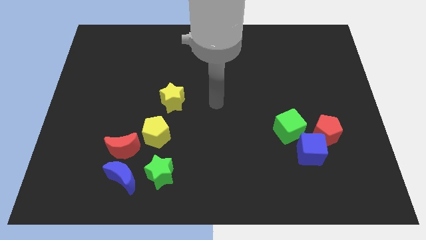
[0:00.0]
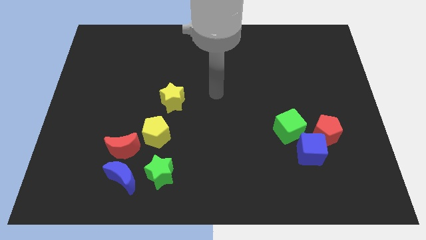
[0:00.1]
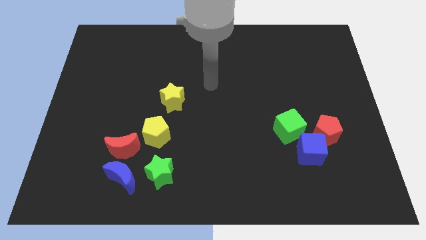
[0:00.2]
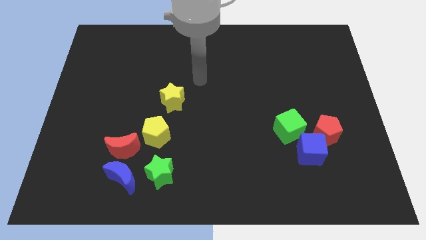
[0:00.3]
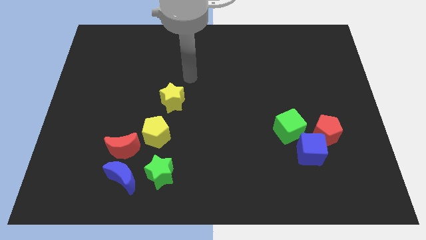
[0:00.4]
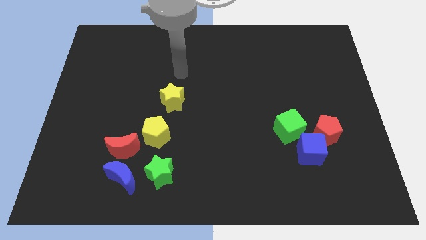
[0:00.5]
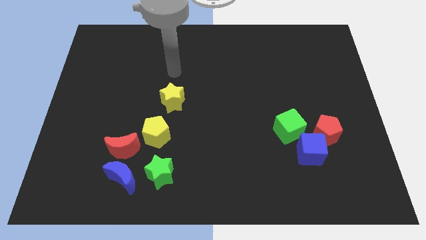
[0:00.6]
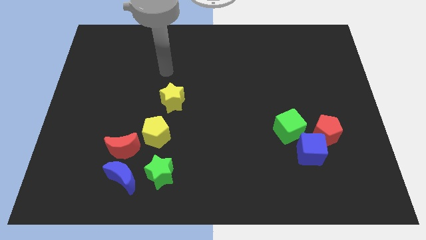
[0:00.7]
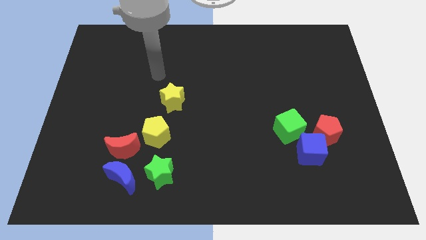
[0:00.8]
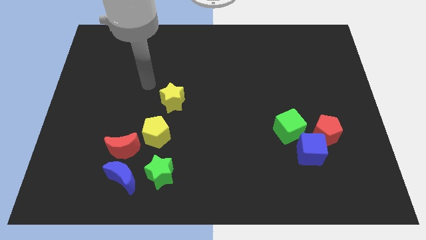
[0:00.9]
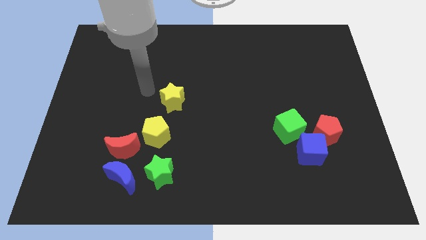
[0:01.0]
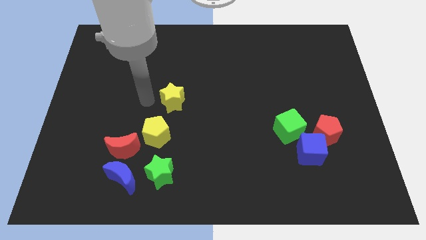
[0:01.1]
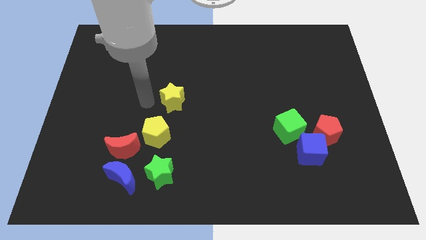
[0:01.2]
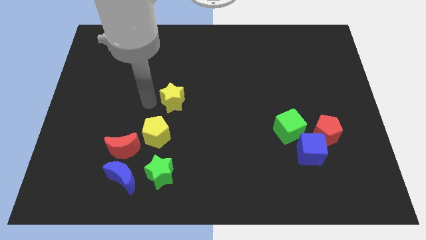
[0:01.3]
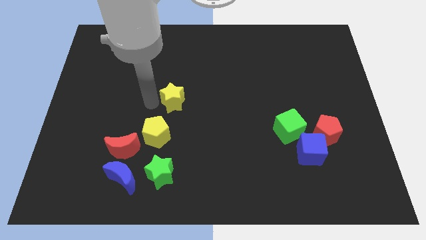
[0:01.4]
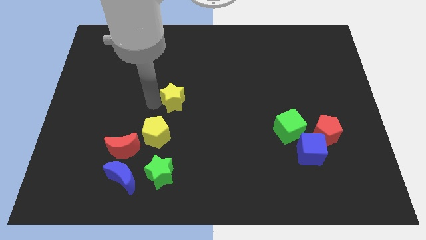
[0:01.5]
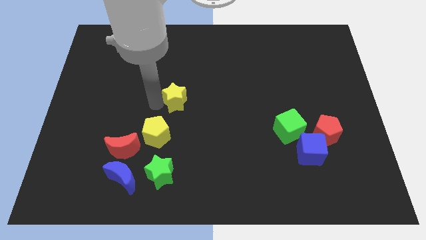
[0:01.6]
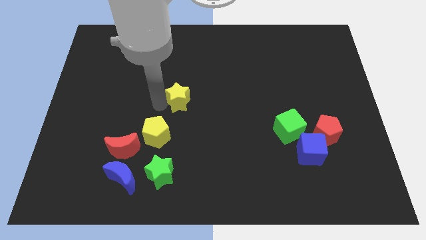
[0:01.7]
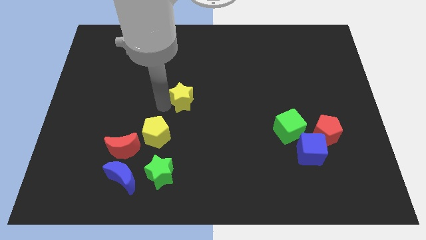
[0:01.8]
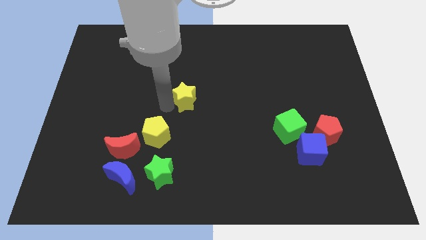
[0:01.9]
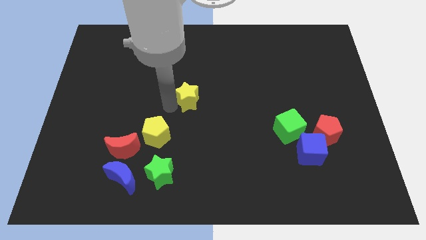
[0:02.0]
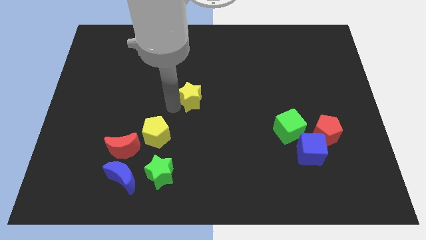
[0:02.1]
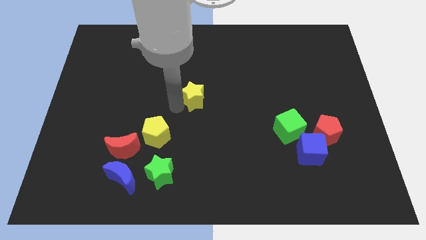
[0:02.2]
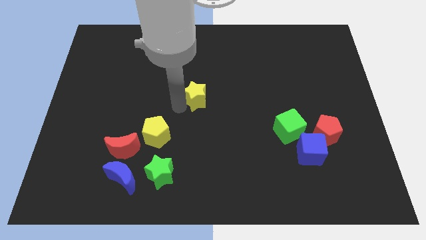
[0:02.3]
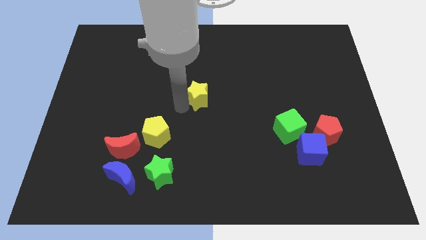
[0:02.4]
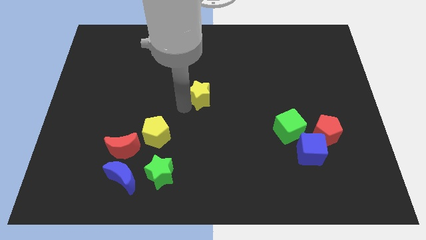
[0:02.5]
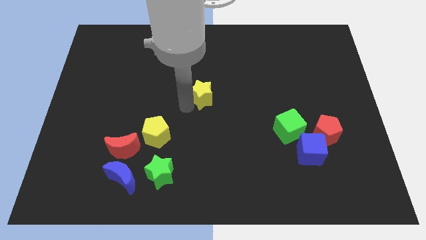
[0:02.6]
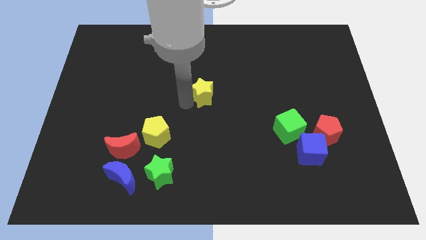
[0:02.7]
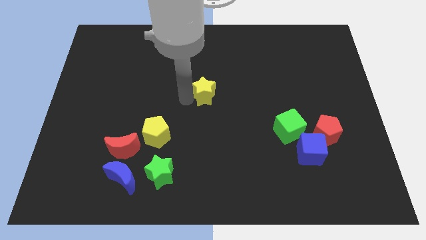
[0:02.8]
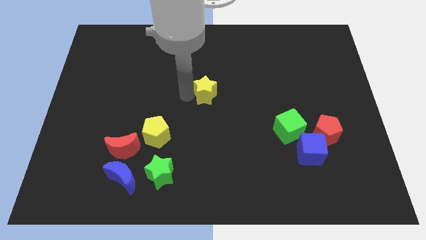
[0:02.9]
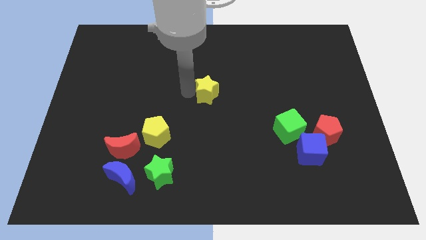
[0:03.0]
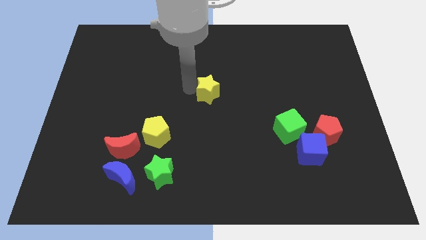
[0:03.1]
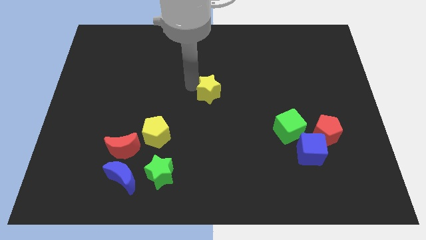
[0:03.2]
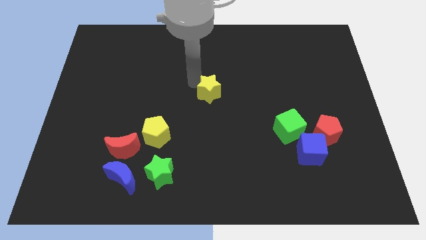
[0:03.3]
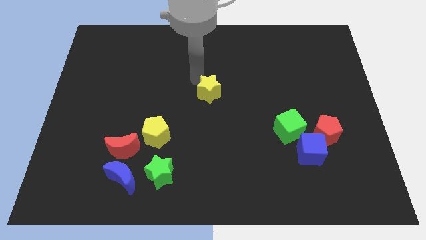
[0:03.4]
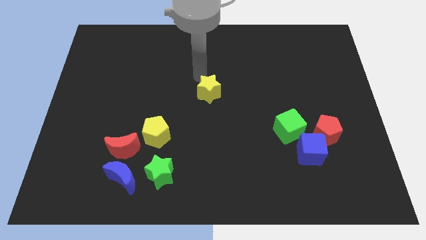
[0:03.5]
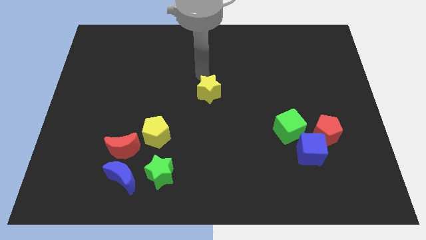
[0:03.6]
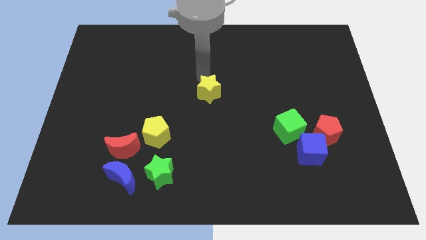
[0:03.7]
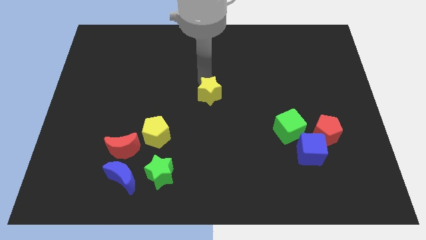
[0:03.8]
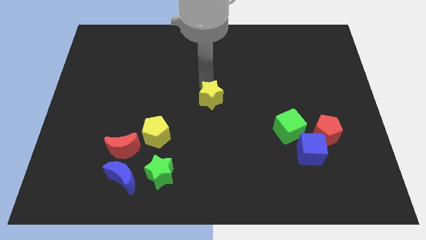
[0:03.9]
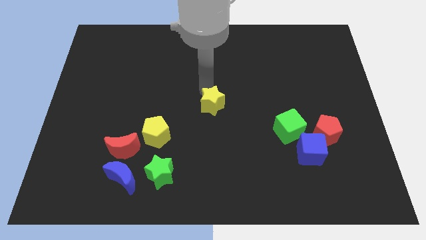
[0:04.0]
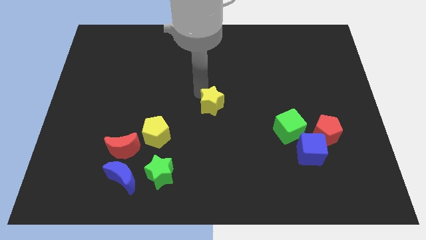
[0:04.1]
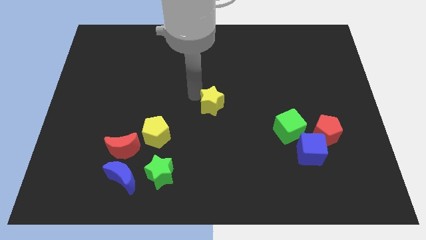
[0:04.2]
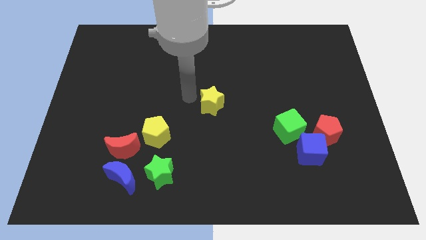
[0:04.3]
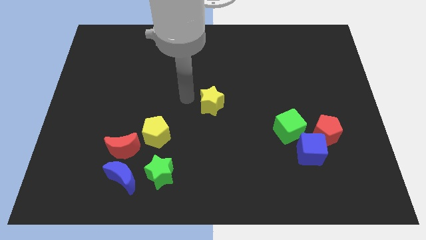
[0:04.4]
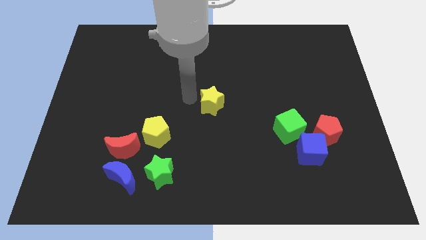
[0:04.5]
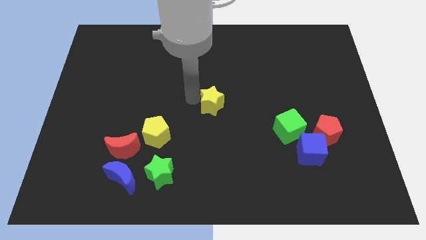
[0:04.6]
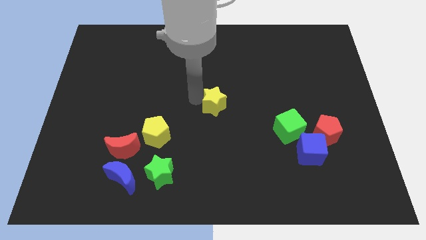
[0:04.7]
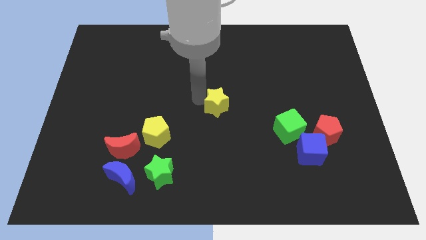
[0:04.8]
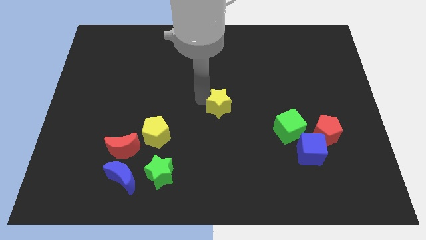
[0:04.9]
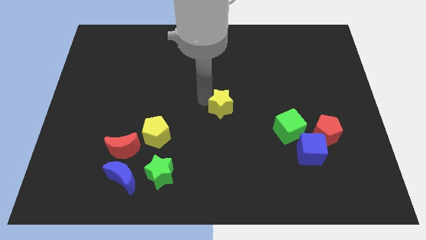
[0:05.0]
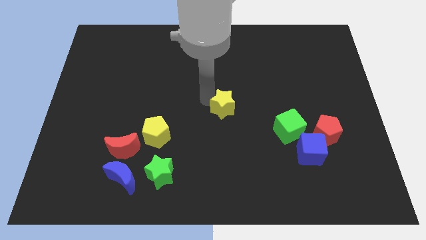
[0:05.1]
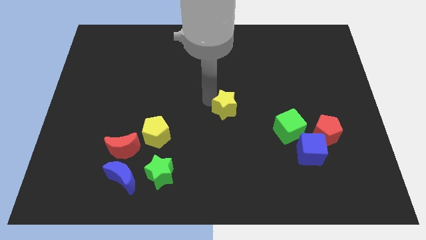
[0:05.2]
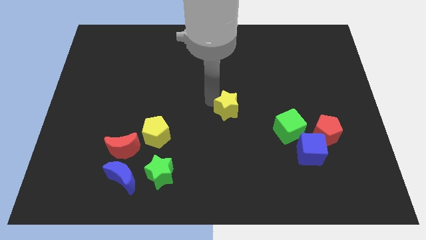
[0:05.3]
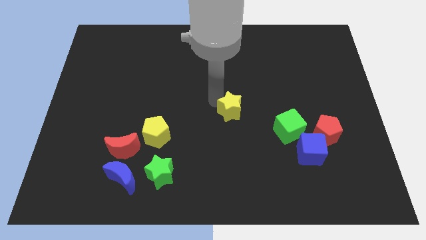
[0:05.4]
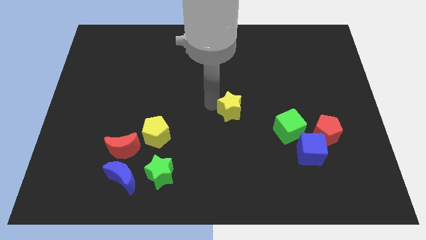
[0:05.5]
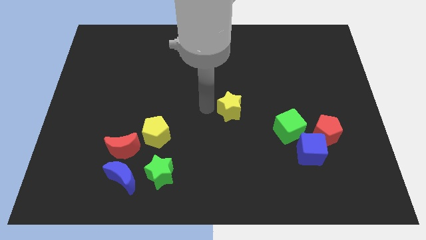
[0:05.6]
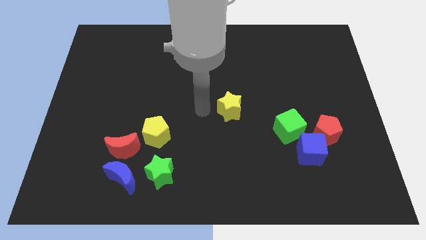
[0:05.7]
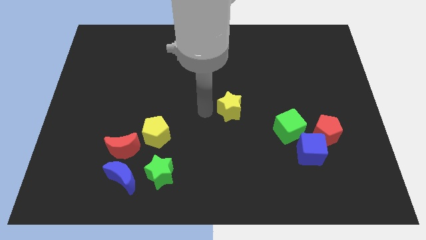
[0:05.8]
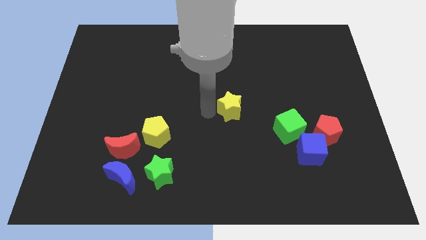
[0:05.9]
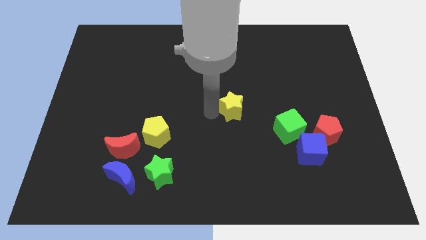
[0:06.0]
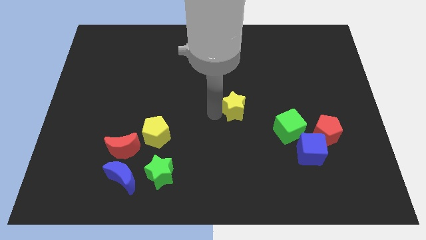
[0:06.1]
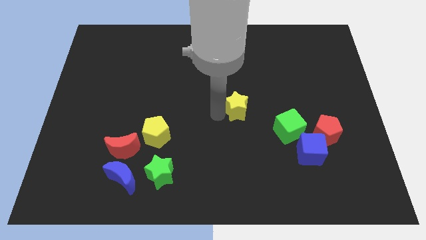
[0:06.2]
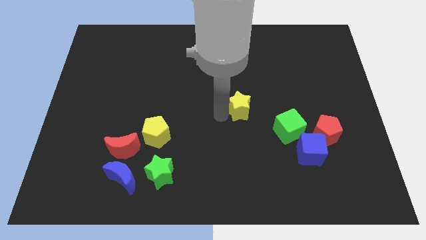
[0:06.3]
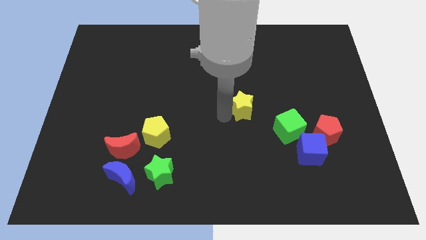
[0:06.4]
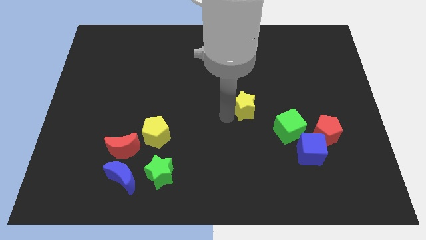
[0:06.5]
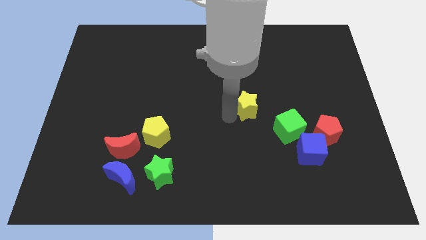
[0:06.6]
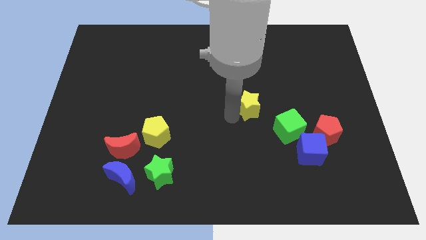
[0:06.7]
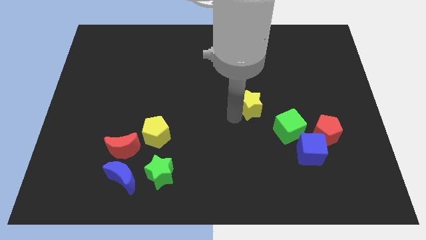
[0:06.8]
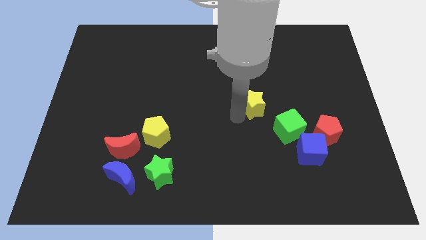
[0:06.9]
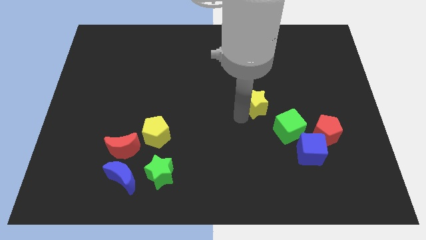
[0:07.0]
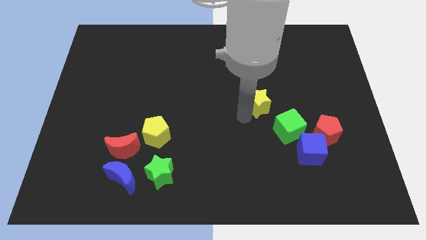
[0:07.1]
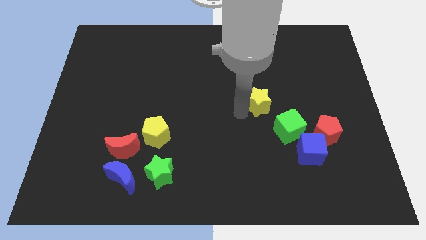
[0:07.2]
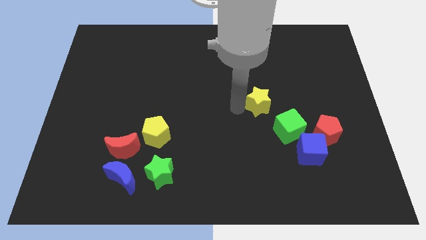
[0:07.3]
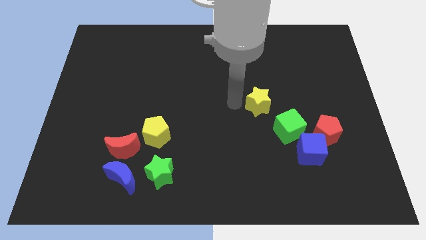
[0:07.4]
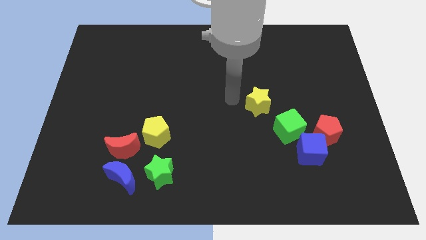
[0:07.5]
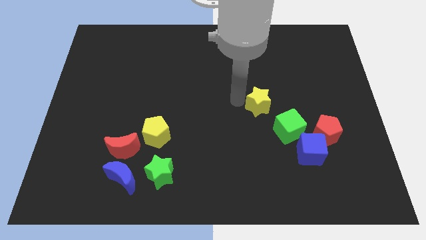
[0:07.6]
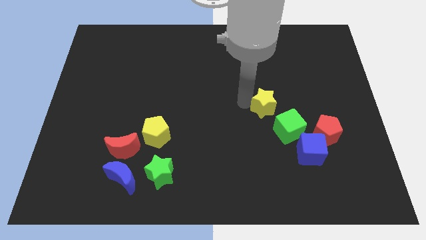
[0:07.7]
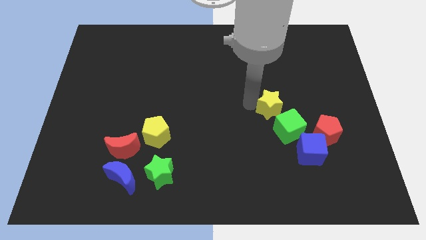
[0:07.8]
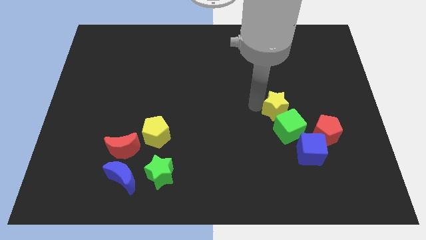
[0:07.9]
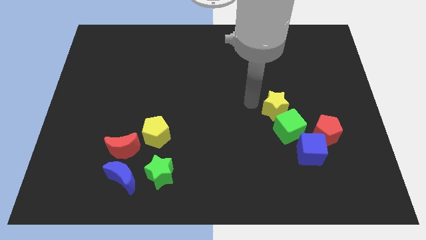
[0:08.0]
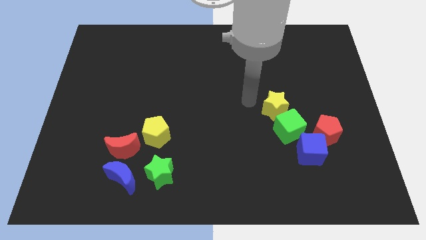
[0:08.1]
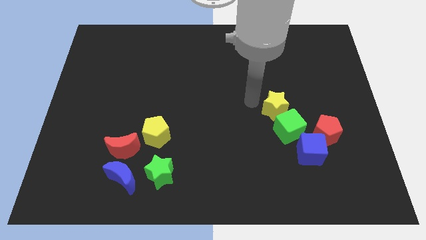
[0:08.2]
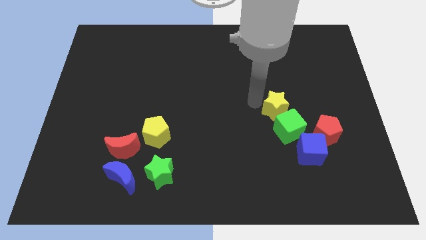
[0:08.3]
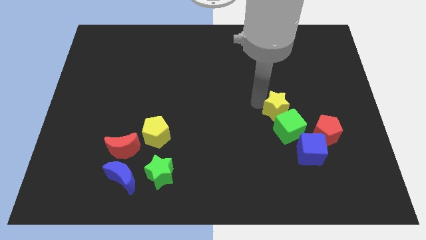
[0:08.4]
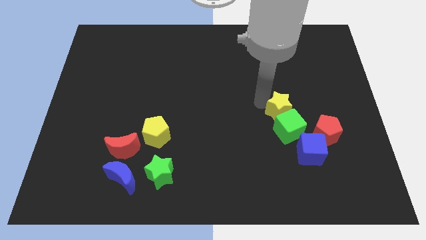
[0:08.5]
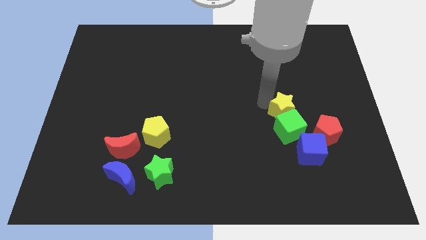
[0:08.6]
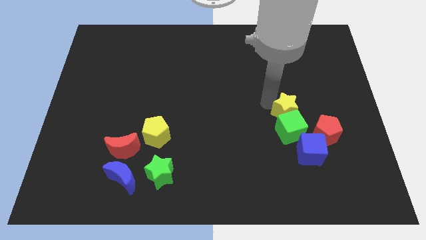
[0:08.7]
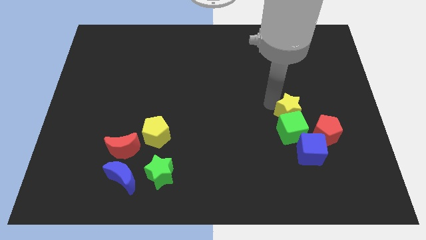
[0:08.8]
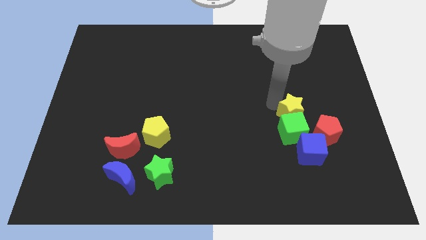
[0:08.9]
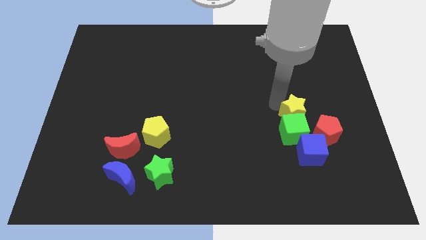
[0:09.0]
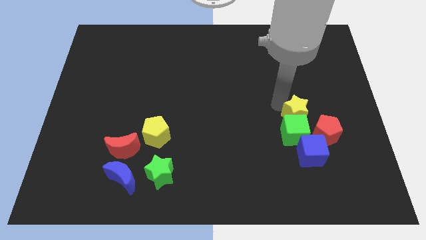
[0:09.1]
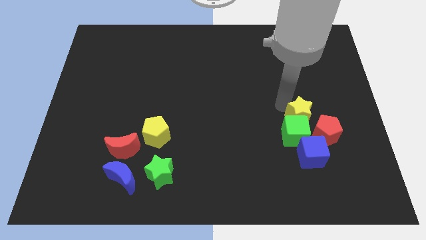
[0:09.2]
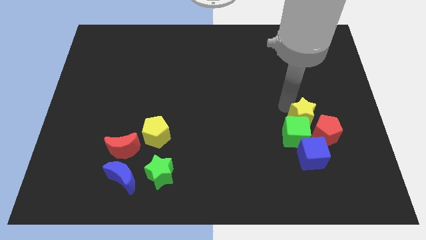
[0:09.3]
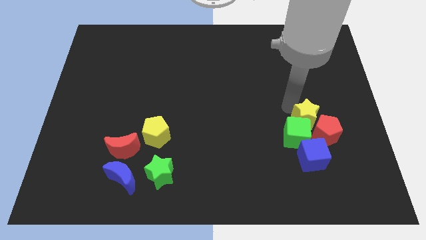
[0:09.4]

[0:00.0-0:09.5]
put the yellow star next to the red pentagon
